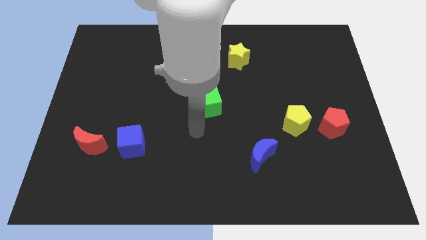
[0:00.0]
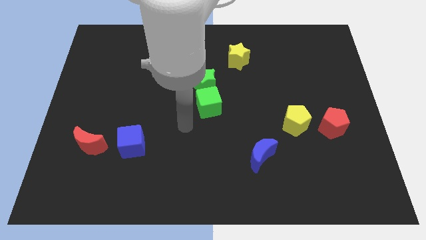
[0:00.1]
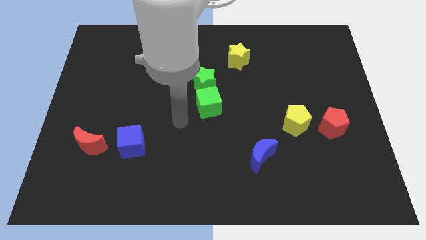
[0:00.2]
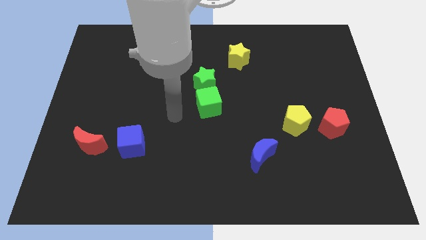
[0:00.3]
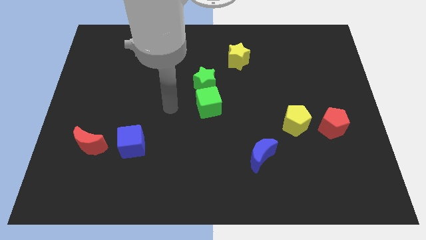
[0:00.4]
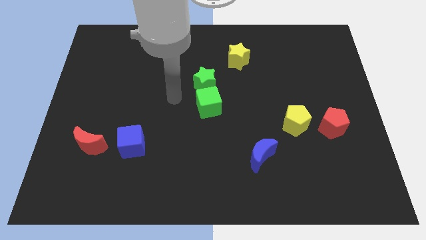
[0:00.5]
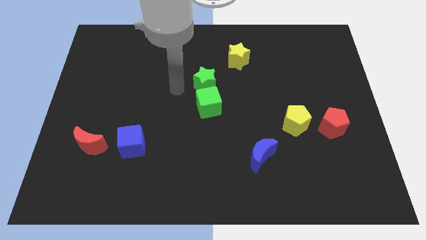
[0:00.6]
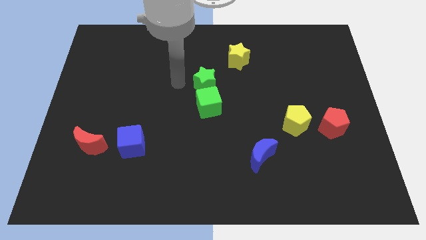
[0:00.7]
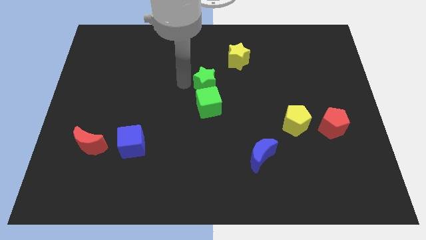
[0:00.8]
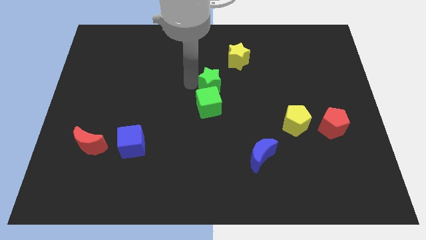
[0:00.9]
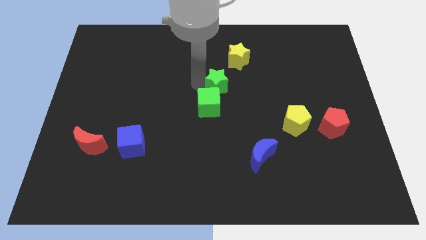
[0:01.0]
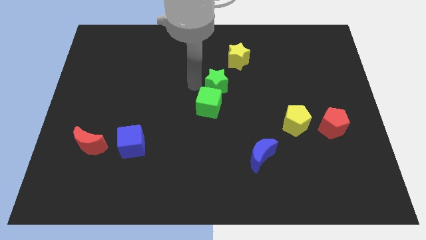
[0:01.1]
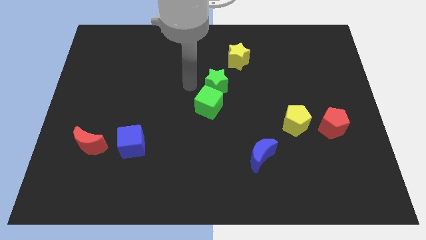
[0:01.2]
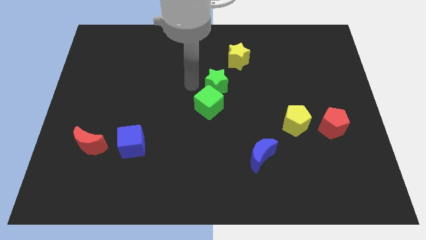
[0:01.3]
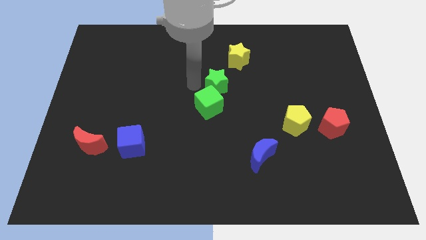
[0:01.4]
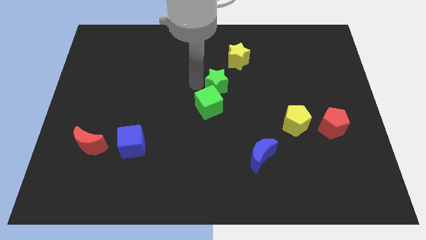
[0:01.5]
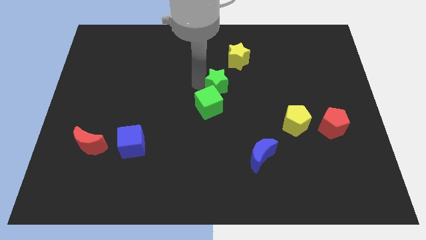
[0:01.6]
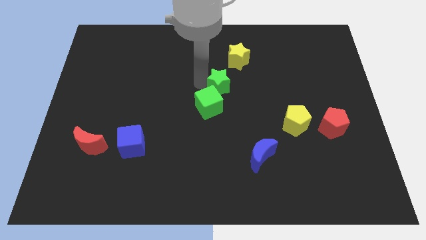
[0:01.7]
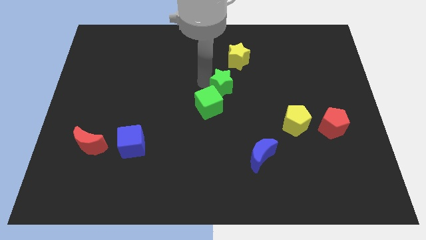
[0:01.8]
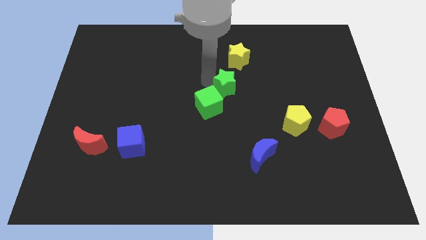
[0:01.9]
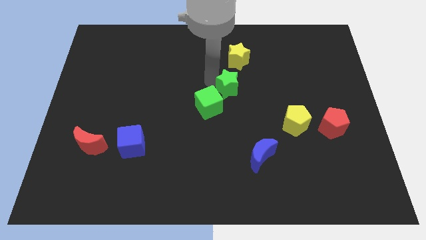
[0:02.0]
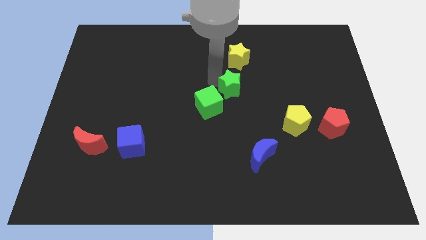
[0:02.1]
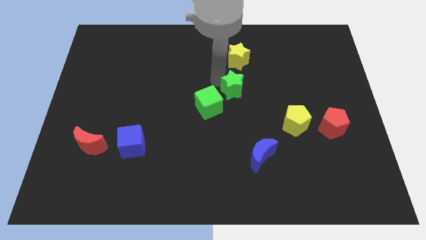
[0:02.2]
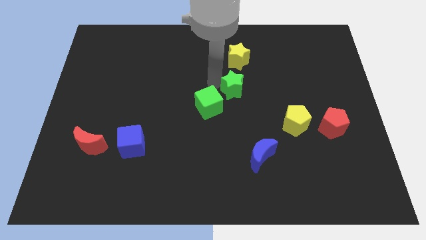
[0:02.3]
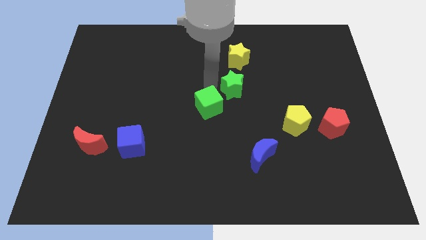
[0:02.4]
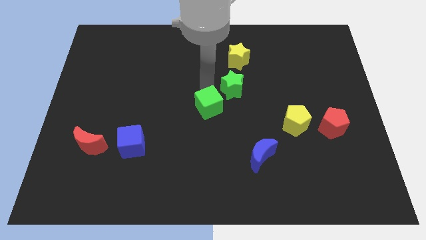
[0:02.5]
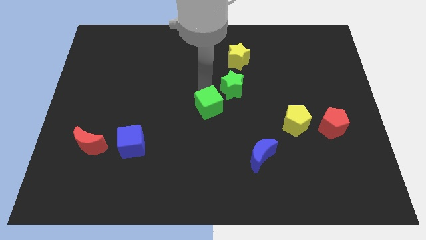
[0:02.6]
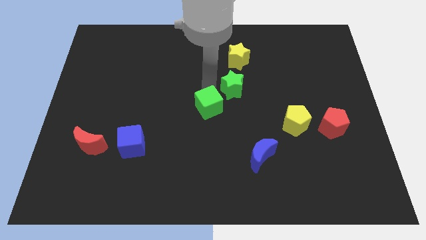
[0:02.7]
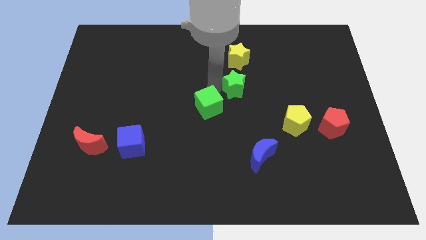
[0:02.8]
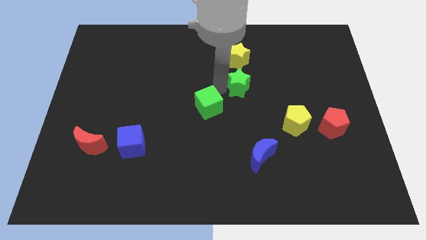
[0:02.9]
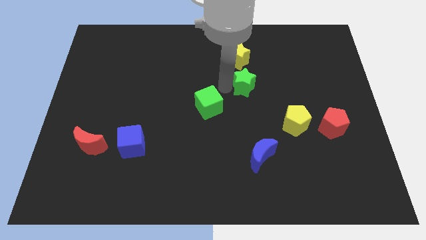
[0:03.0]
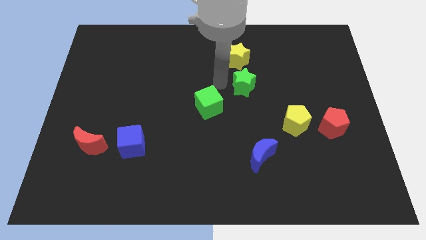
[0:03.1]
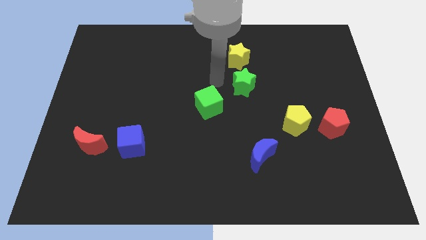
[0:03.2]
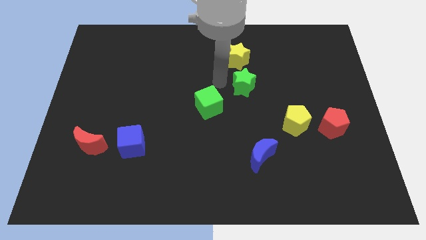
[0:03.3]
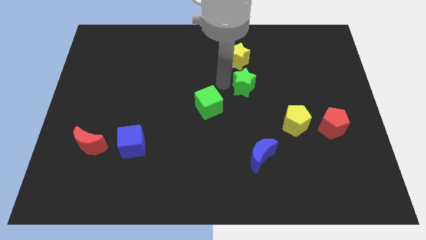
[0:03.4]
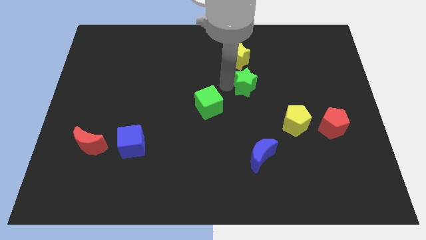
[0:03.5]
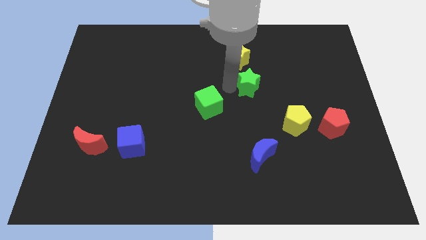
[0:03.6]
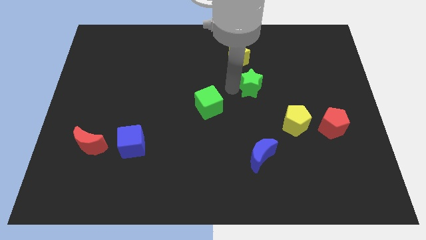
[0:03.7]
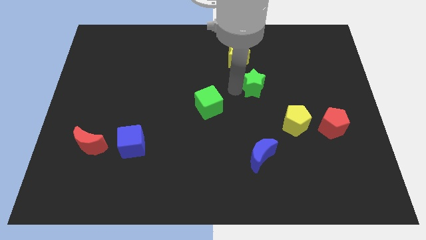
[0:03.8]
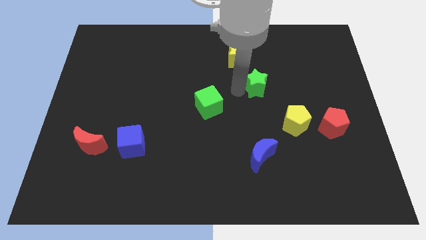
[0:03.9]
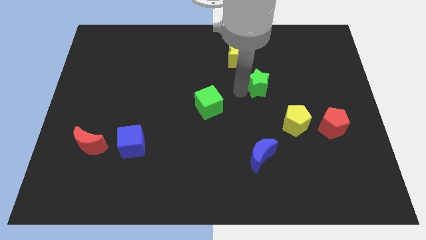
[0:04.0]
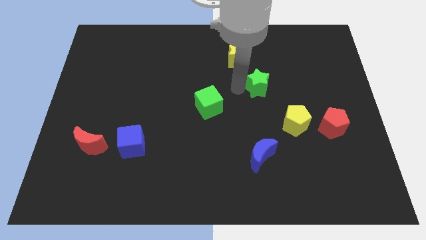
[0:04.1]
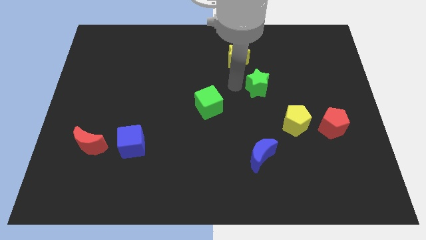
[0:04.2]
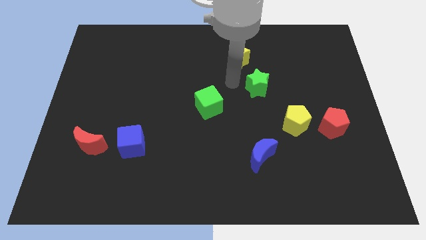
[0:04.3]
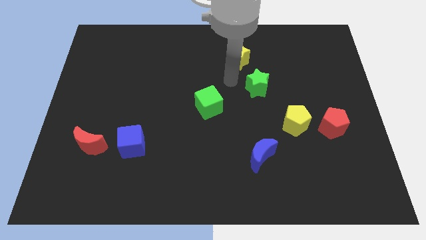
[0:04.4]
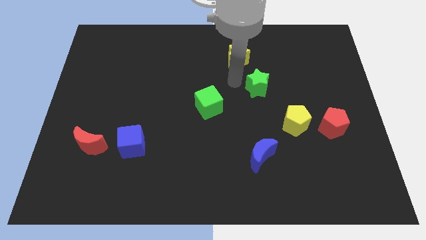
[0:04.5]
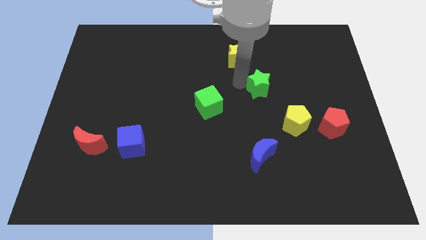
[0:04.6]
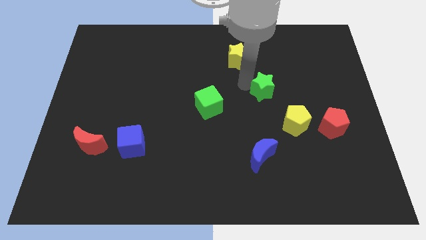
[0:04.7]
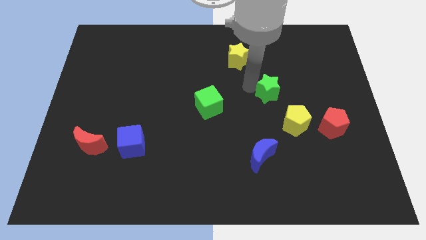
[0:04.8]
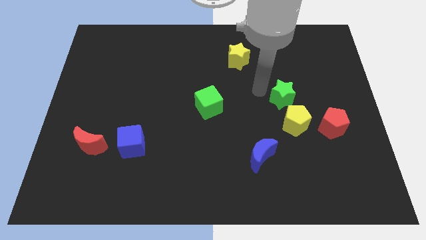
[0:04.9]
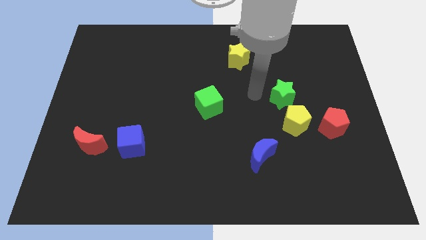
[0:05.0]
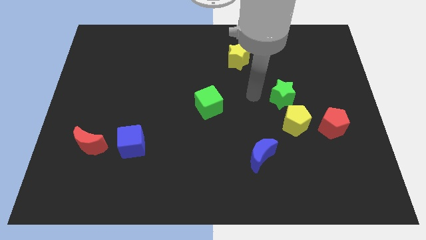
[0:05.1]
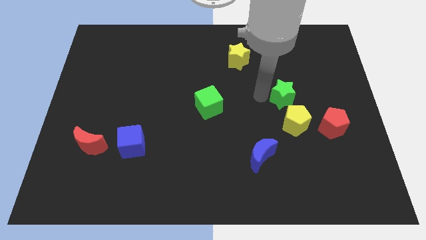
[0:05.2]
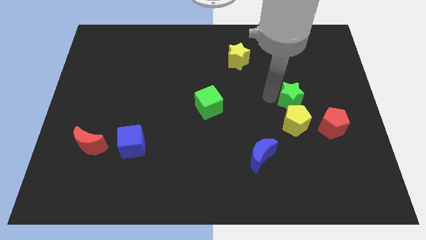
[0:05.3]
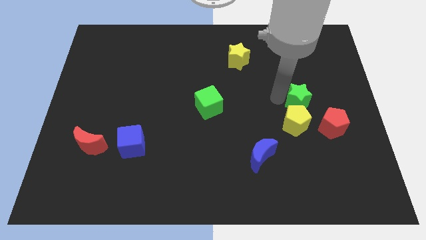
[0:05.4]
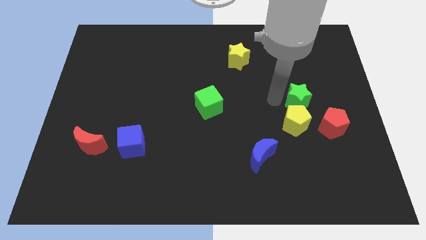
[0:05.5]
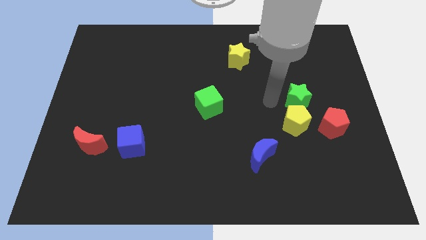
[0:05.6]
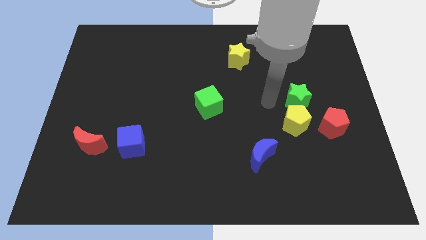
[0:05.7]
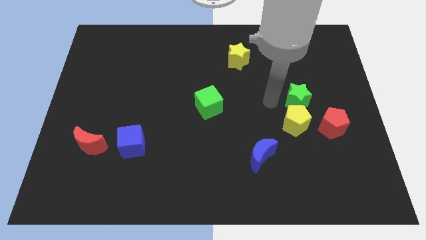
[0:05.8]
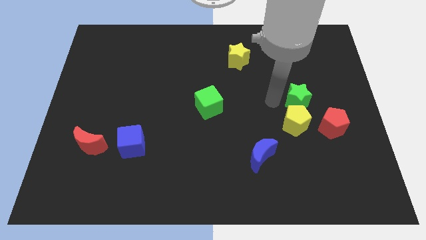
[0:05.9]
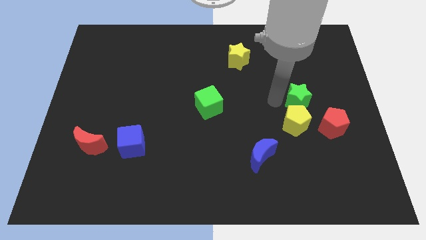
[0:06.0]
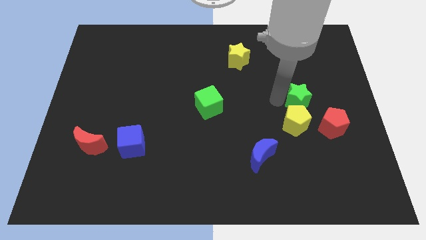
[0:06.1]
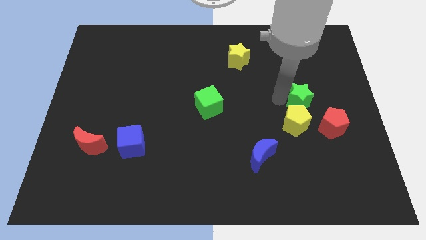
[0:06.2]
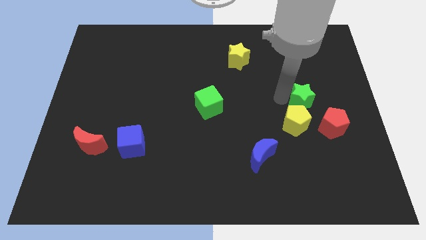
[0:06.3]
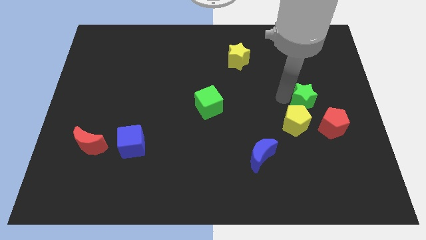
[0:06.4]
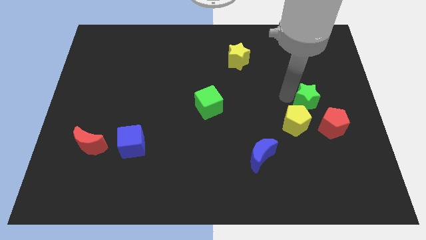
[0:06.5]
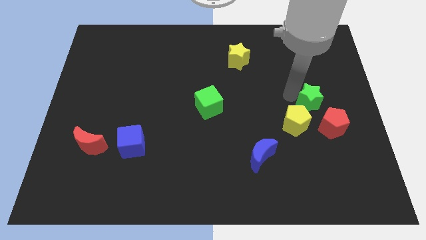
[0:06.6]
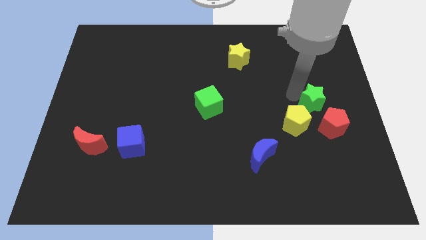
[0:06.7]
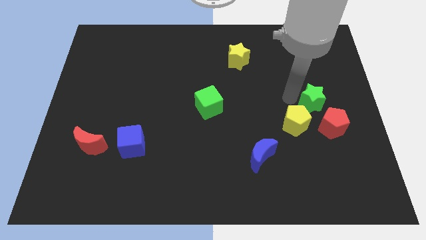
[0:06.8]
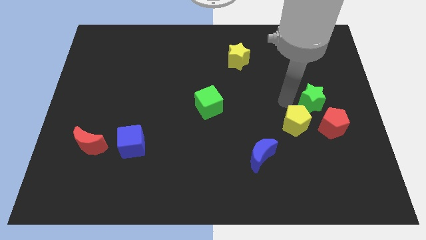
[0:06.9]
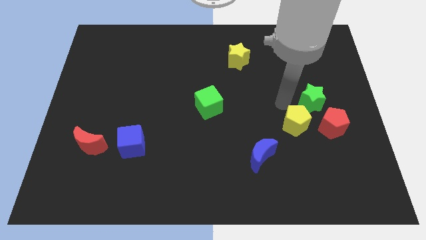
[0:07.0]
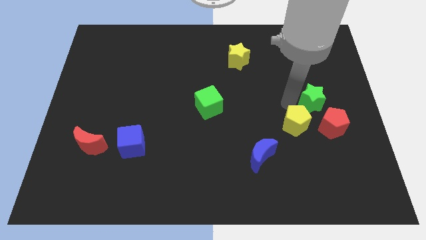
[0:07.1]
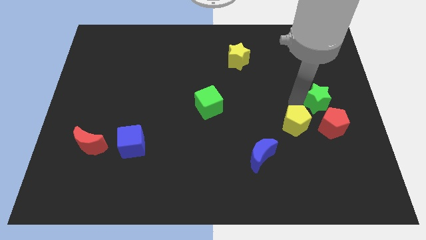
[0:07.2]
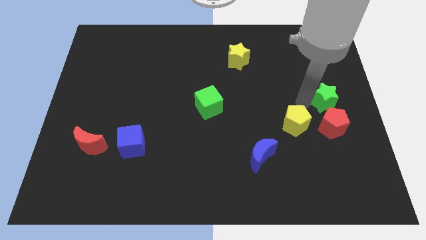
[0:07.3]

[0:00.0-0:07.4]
slide the green star to the right side of the board
